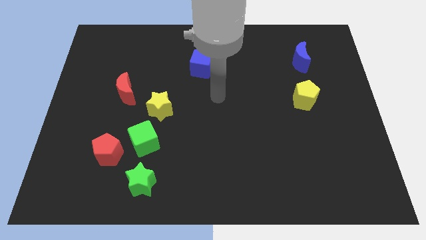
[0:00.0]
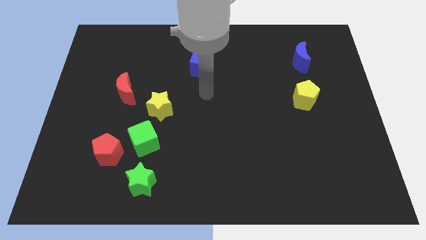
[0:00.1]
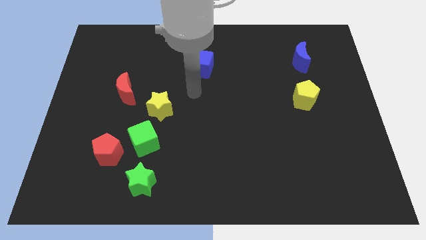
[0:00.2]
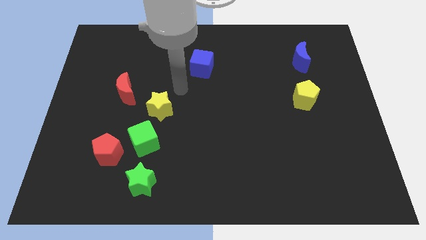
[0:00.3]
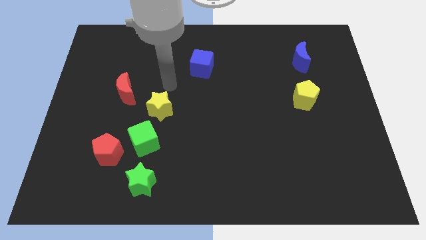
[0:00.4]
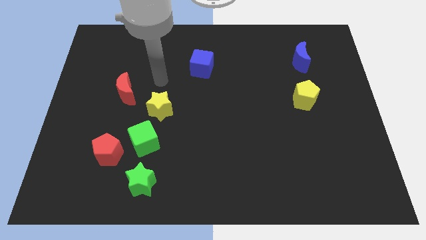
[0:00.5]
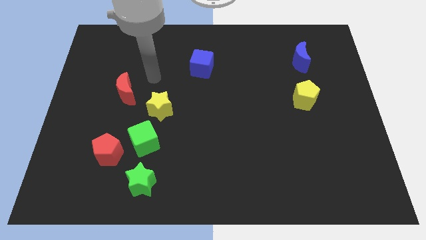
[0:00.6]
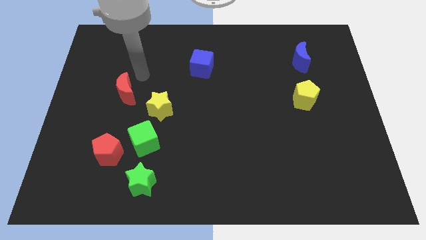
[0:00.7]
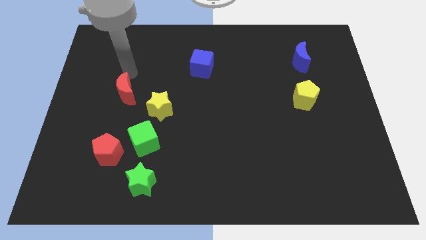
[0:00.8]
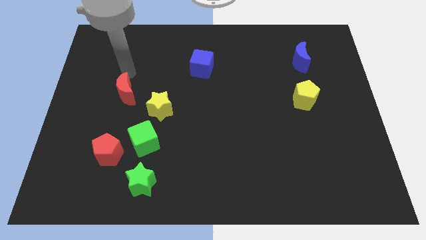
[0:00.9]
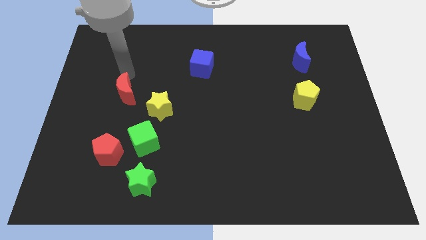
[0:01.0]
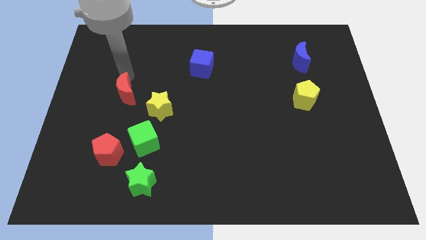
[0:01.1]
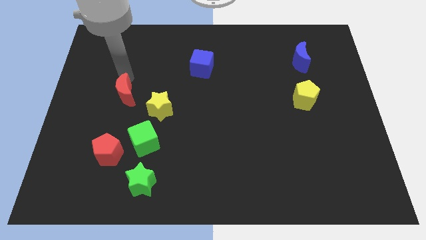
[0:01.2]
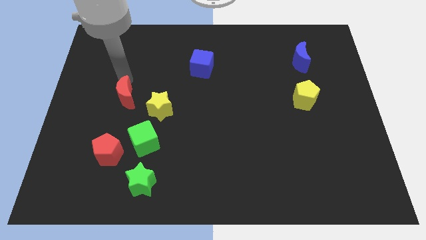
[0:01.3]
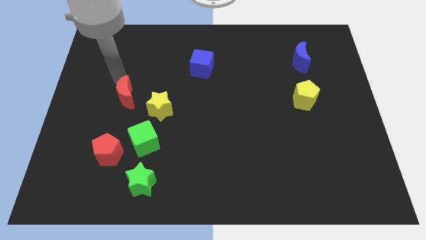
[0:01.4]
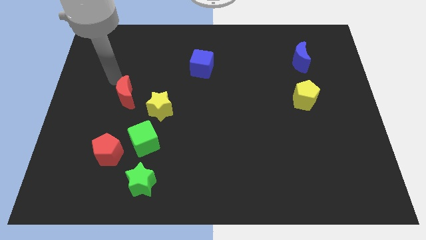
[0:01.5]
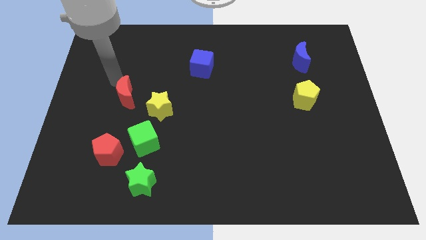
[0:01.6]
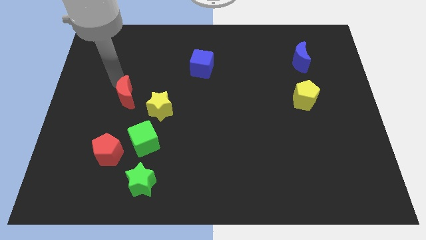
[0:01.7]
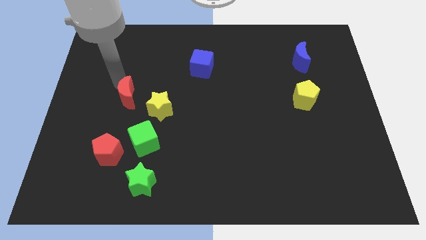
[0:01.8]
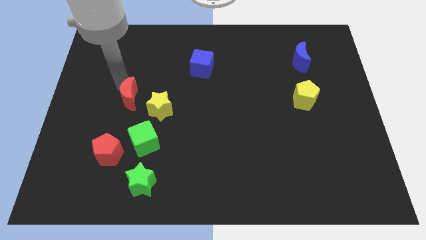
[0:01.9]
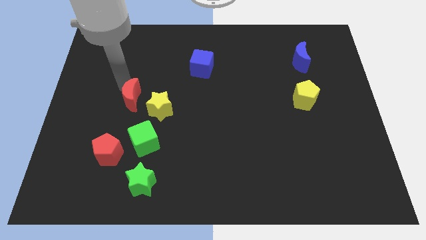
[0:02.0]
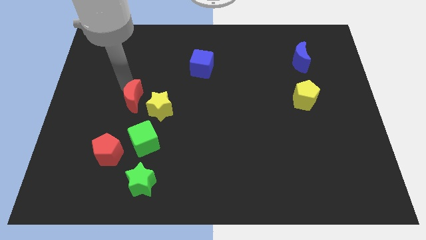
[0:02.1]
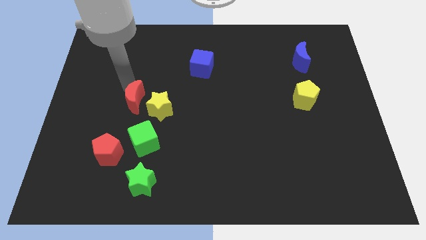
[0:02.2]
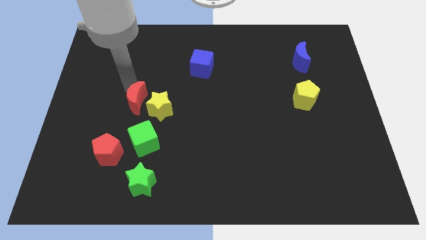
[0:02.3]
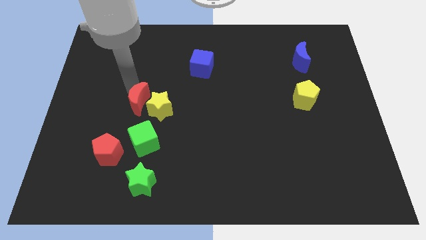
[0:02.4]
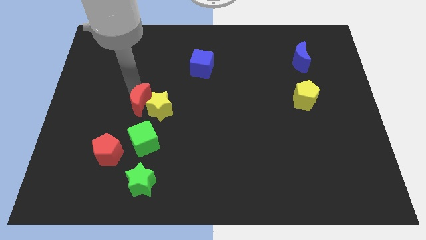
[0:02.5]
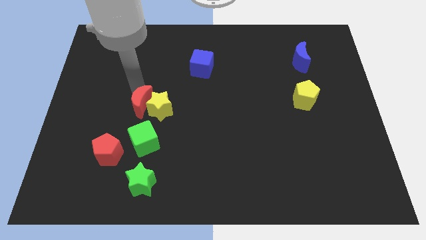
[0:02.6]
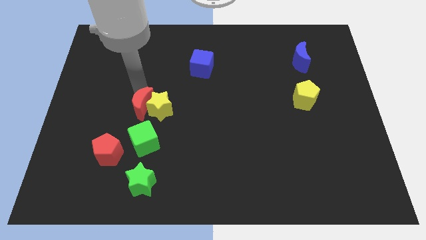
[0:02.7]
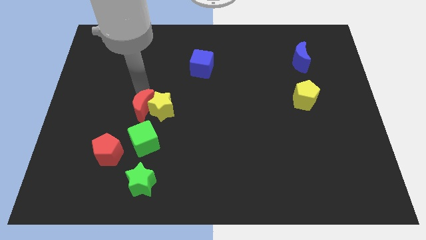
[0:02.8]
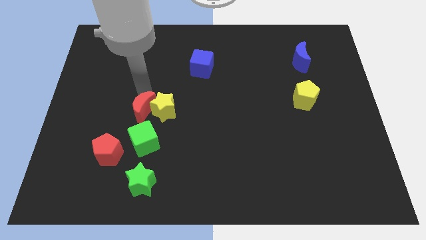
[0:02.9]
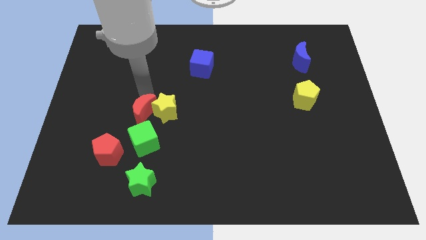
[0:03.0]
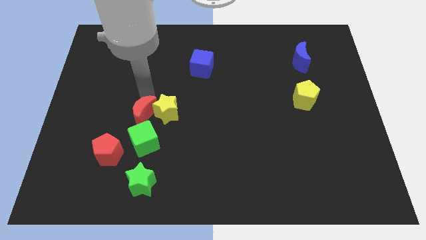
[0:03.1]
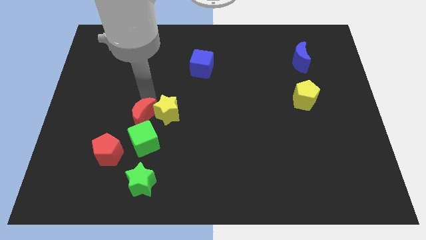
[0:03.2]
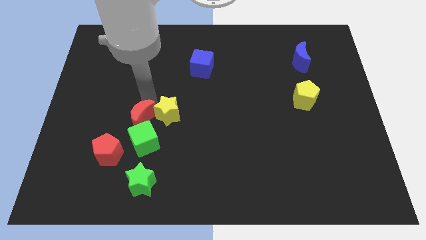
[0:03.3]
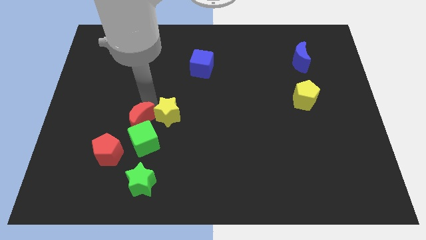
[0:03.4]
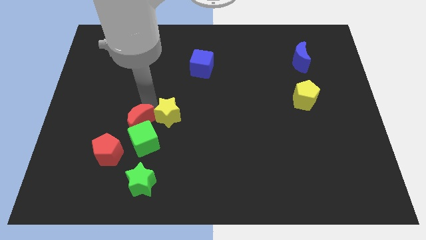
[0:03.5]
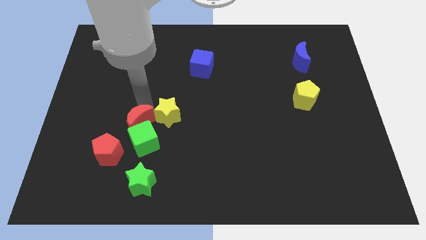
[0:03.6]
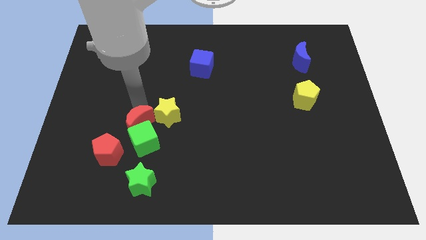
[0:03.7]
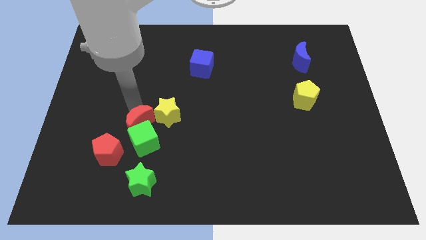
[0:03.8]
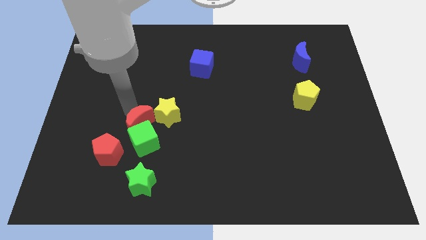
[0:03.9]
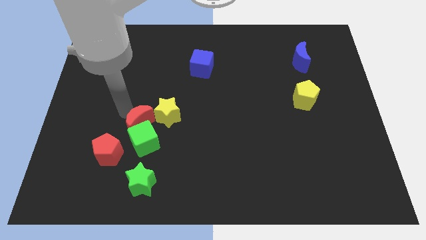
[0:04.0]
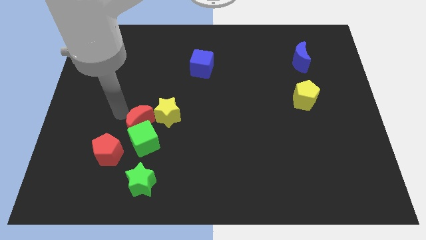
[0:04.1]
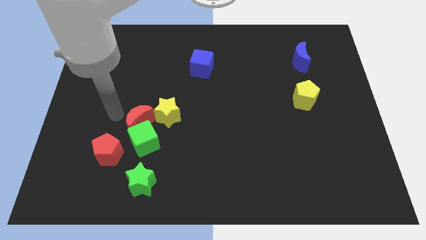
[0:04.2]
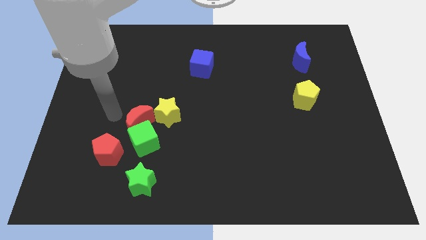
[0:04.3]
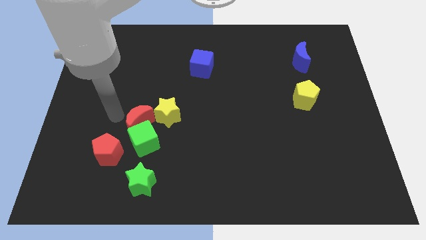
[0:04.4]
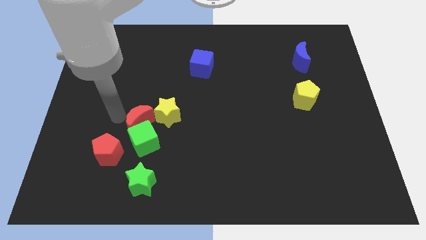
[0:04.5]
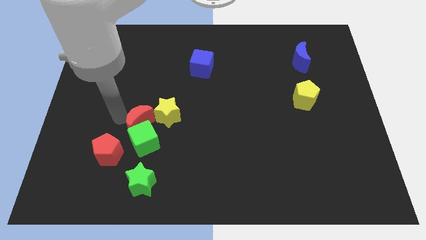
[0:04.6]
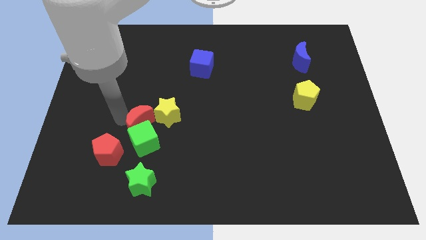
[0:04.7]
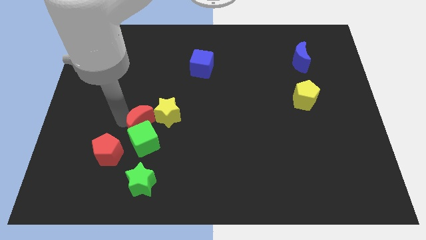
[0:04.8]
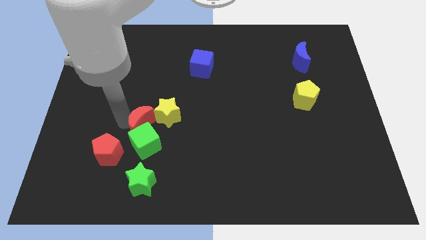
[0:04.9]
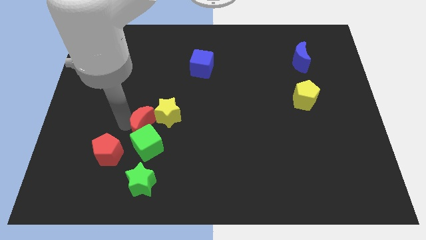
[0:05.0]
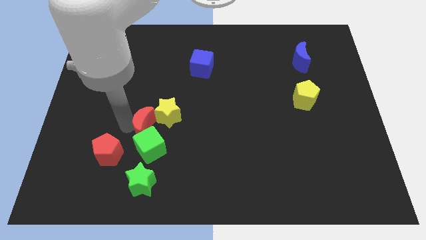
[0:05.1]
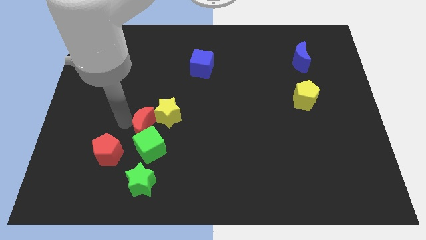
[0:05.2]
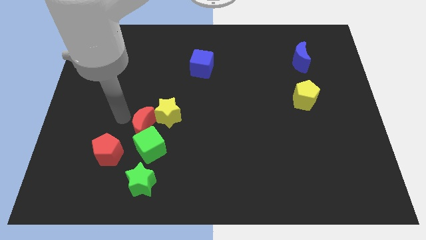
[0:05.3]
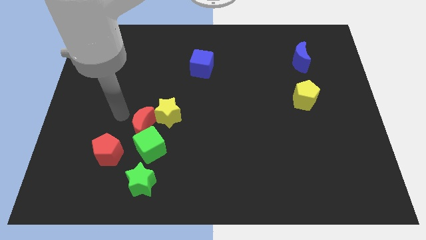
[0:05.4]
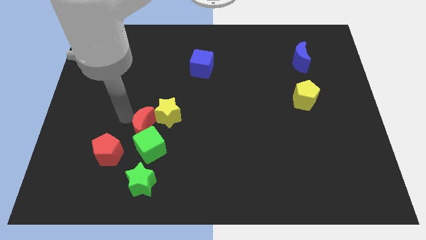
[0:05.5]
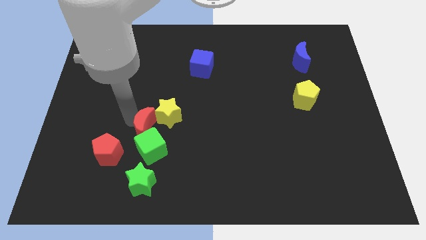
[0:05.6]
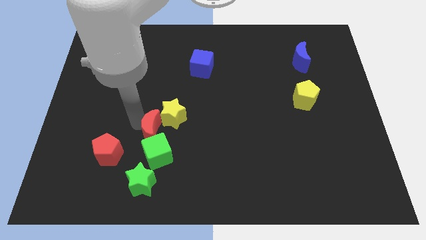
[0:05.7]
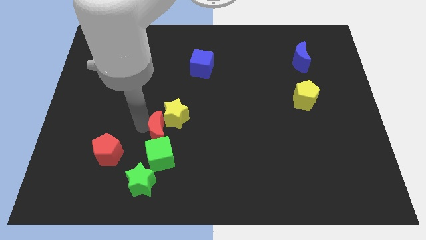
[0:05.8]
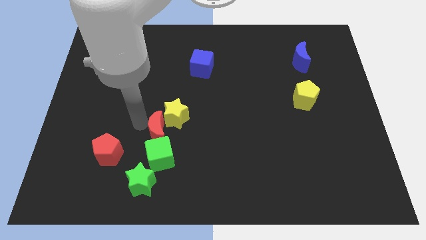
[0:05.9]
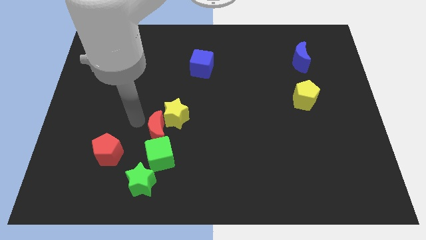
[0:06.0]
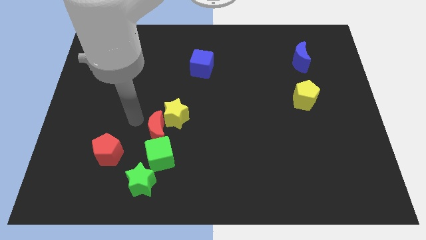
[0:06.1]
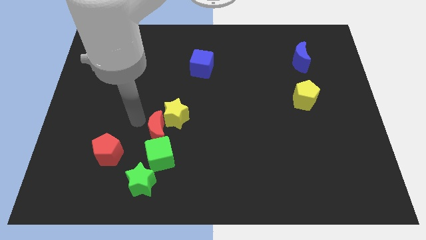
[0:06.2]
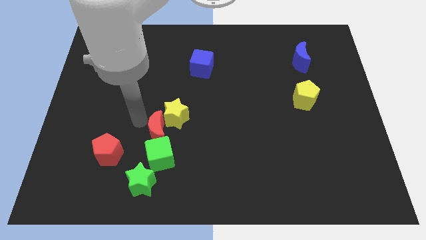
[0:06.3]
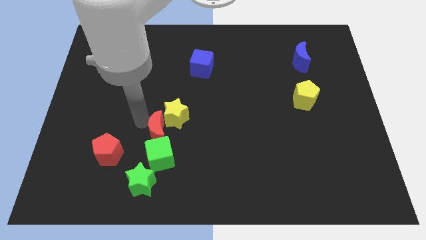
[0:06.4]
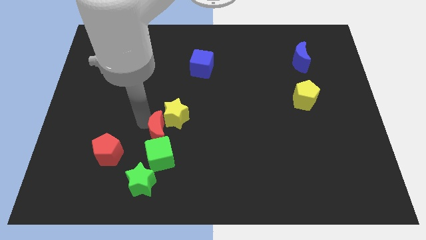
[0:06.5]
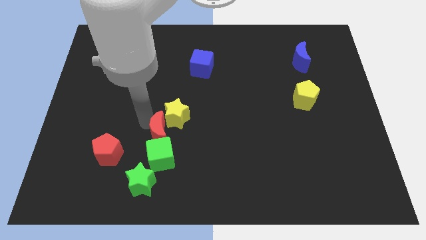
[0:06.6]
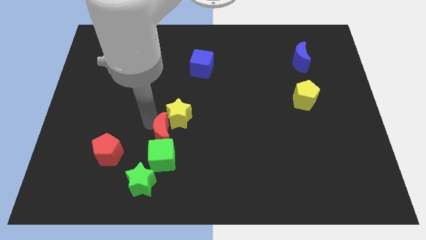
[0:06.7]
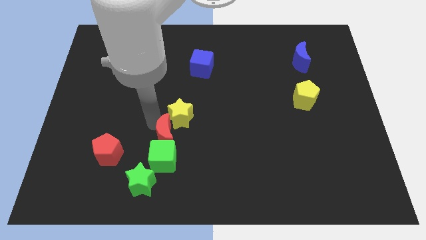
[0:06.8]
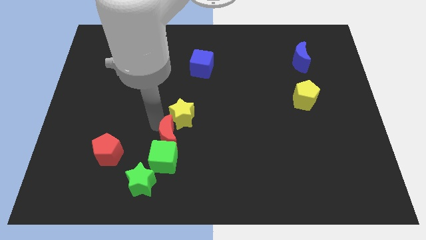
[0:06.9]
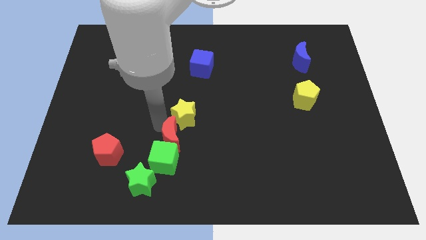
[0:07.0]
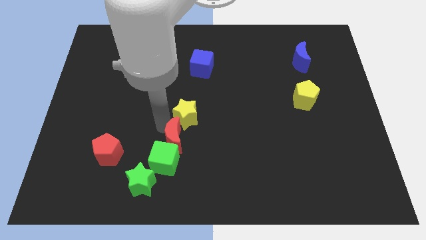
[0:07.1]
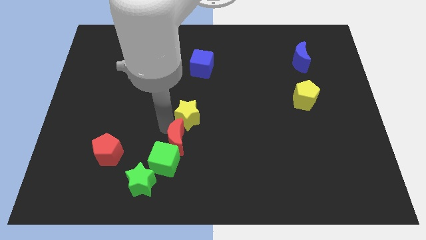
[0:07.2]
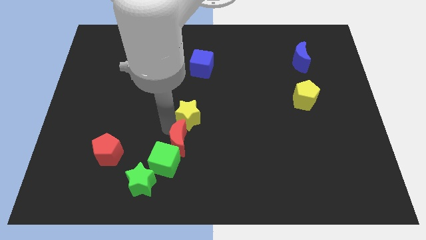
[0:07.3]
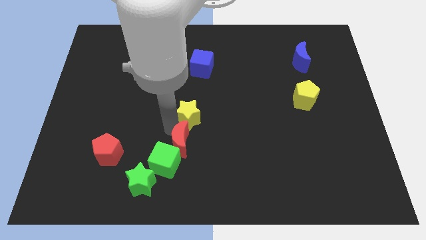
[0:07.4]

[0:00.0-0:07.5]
slide the red moon downwards and to the right diagonally

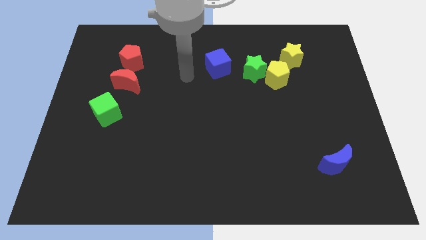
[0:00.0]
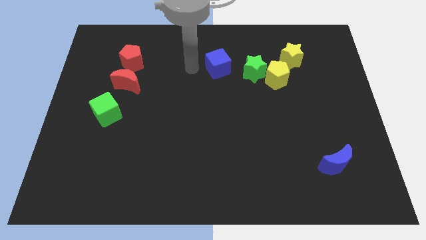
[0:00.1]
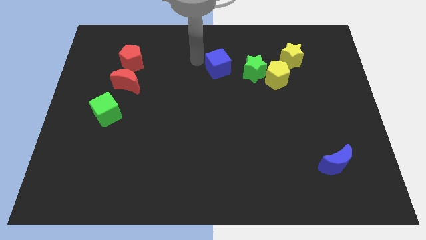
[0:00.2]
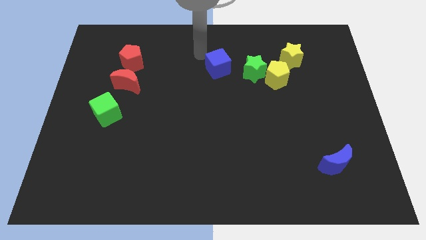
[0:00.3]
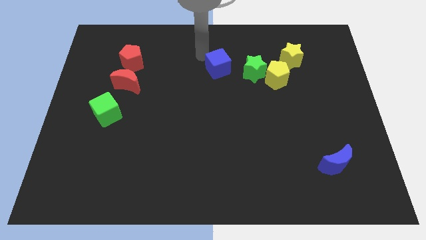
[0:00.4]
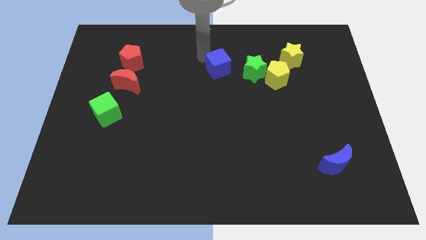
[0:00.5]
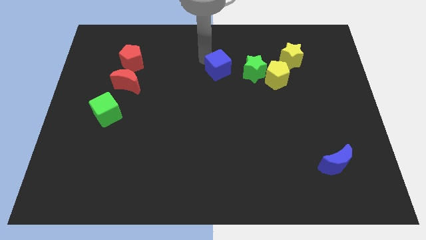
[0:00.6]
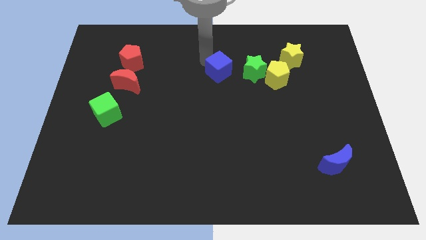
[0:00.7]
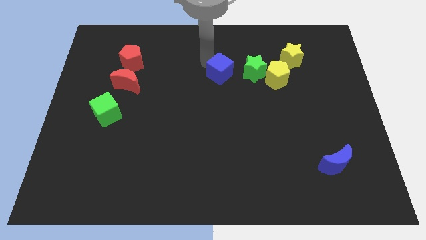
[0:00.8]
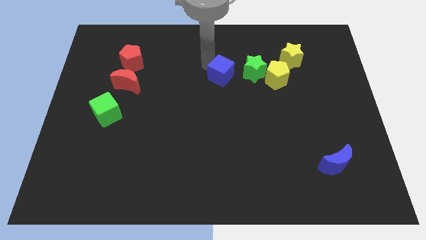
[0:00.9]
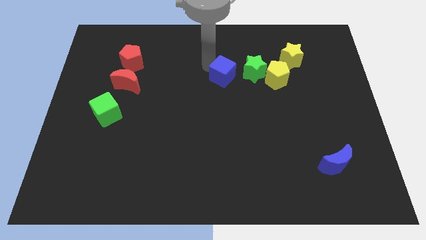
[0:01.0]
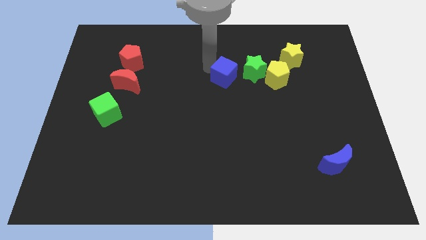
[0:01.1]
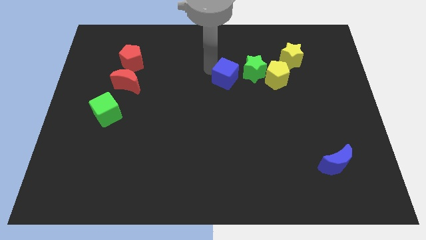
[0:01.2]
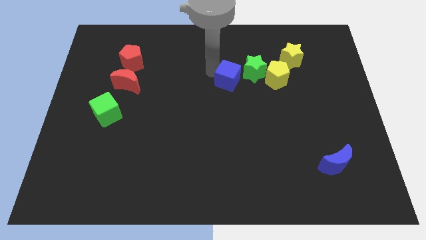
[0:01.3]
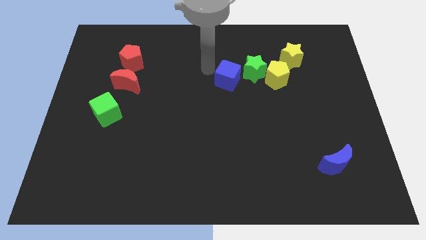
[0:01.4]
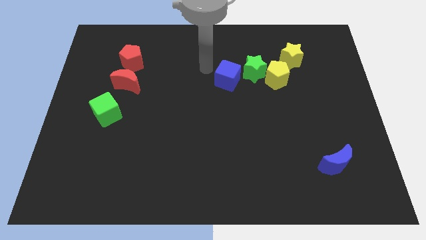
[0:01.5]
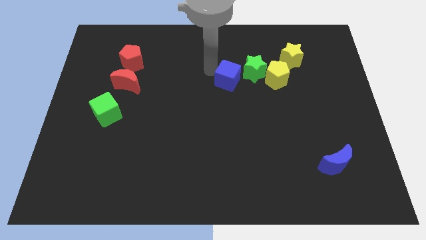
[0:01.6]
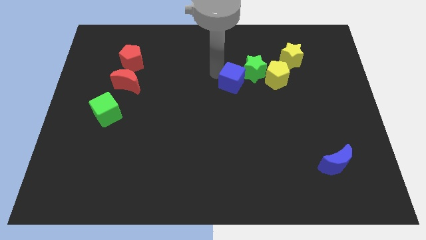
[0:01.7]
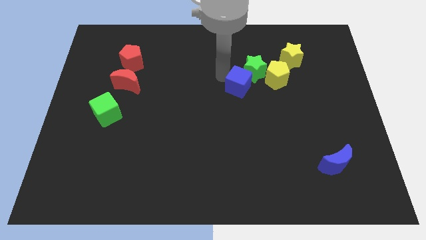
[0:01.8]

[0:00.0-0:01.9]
move the blue cube somewhat diagonally down and to the right
